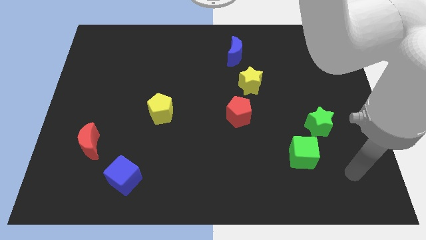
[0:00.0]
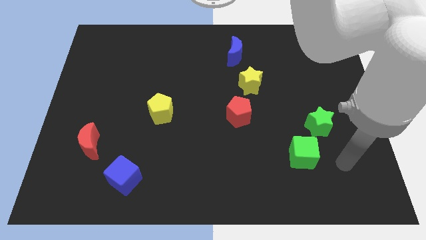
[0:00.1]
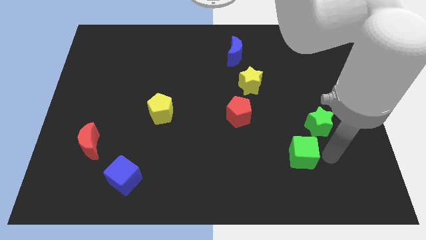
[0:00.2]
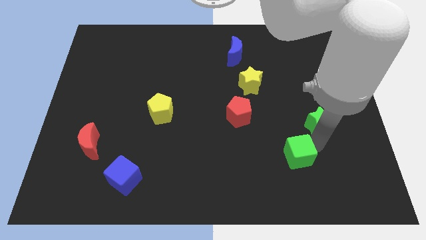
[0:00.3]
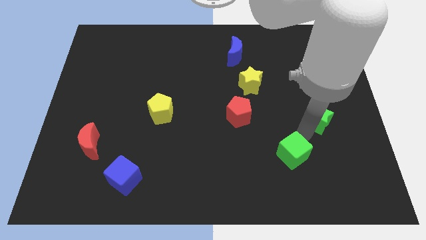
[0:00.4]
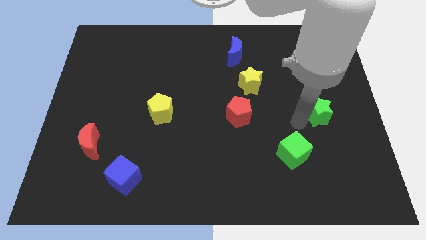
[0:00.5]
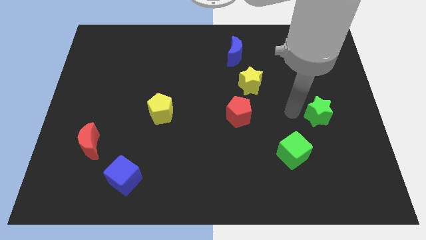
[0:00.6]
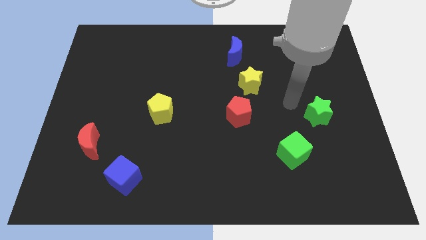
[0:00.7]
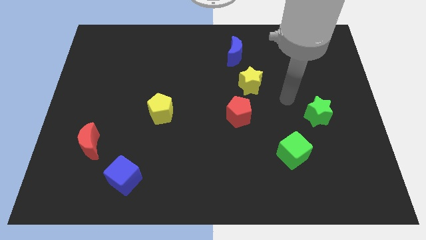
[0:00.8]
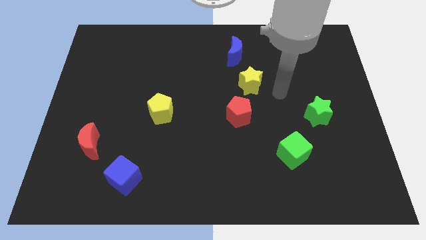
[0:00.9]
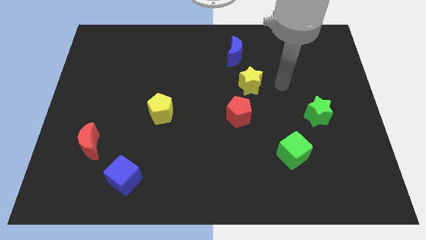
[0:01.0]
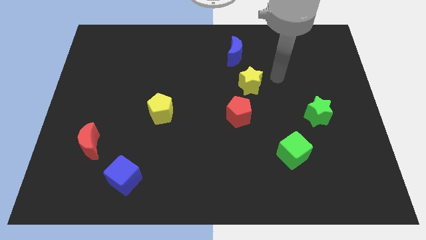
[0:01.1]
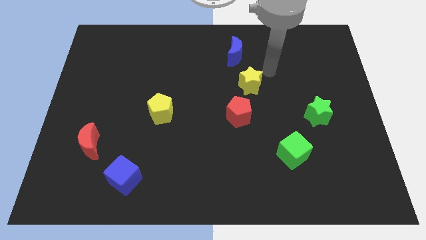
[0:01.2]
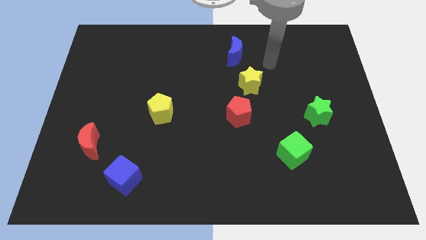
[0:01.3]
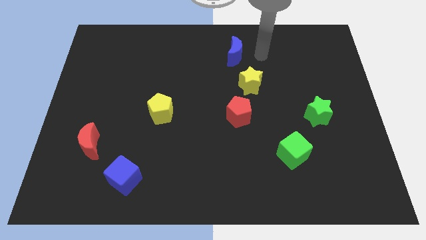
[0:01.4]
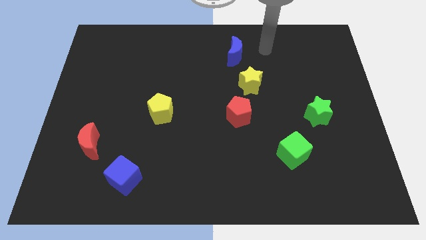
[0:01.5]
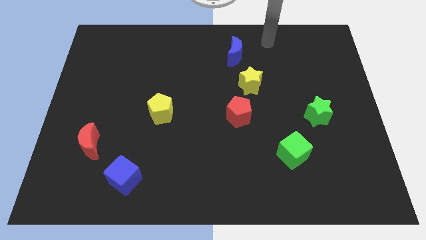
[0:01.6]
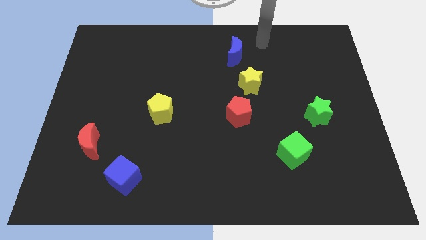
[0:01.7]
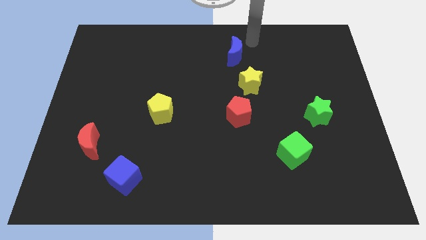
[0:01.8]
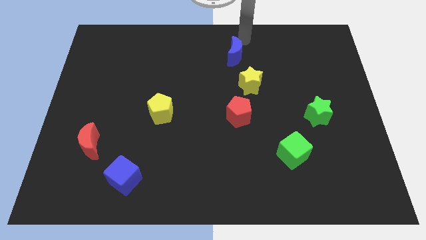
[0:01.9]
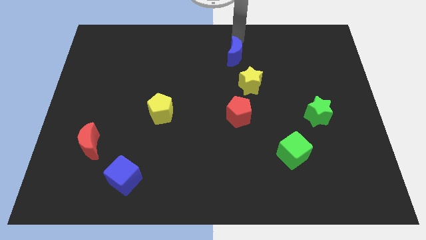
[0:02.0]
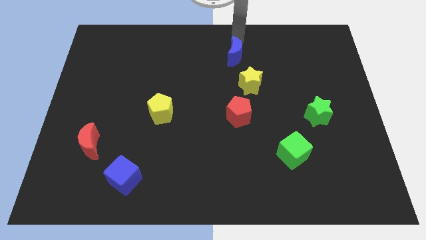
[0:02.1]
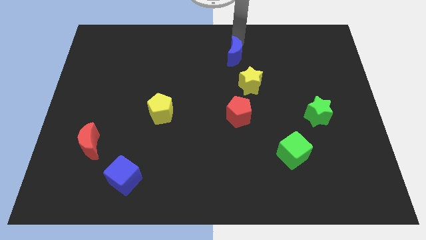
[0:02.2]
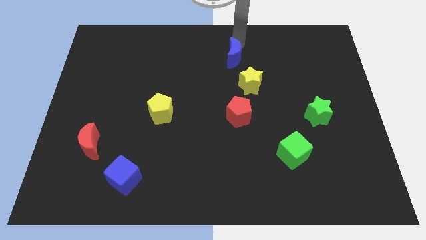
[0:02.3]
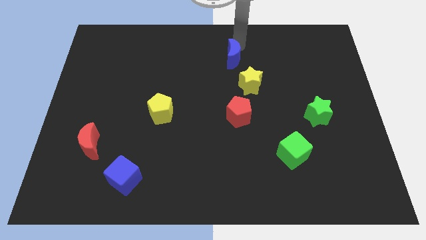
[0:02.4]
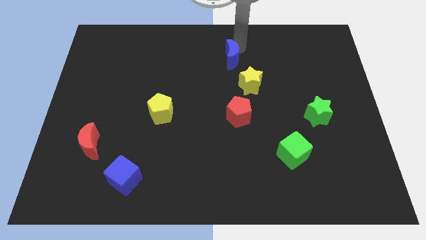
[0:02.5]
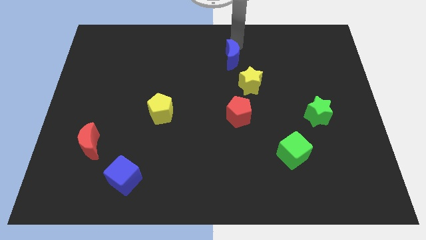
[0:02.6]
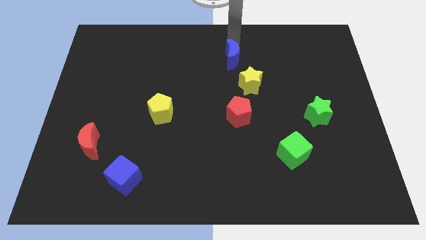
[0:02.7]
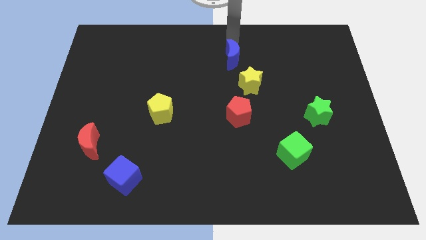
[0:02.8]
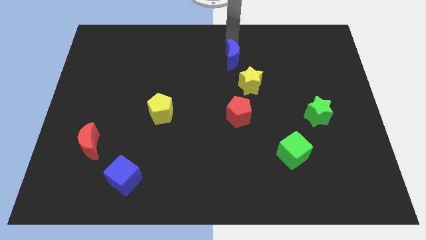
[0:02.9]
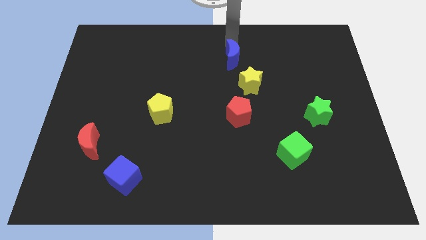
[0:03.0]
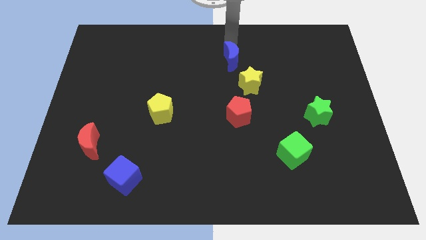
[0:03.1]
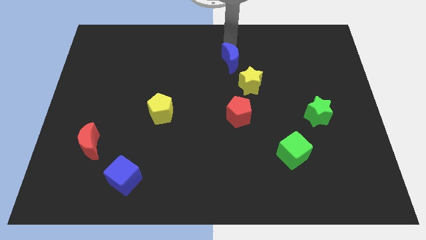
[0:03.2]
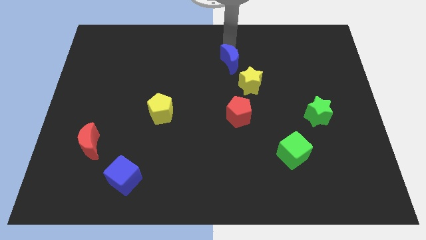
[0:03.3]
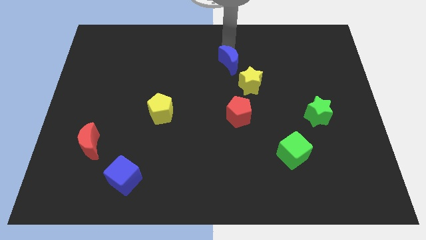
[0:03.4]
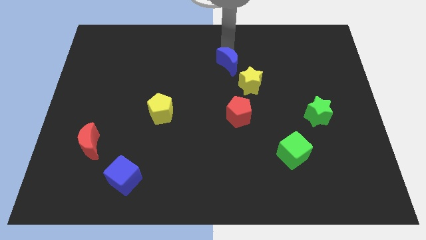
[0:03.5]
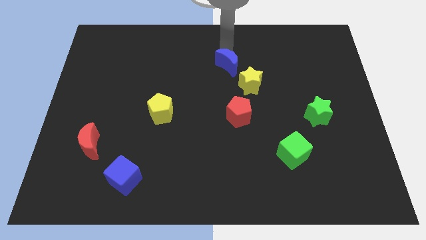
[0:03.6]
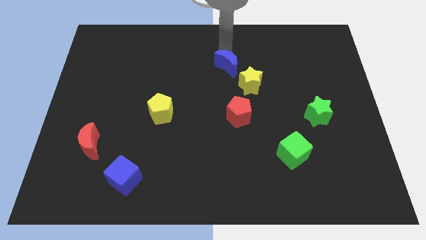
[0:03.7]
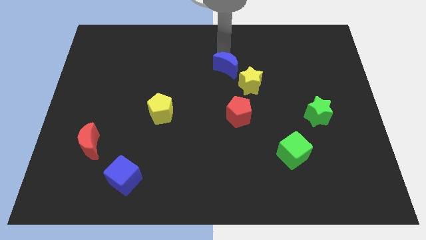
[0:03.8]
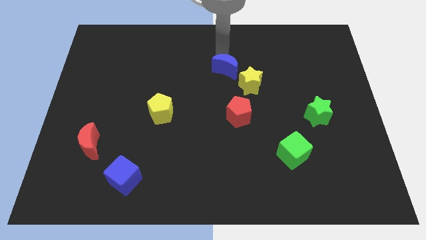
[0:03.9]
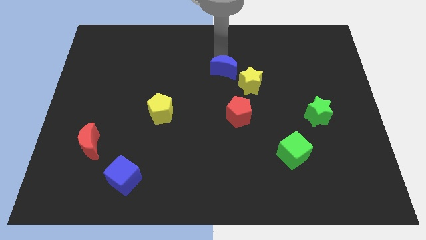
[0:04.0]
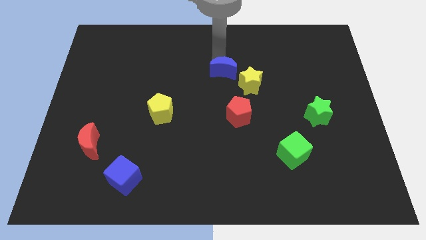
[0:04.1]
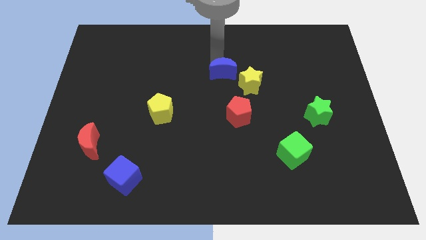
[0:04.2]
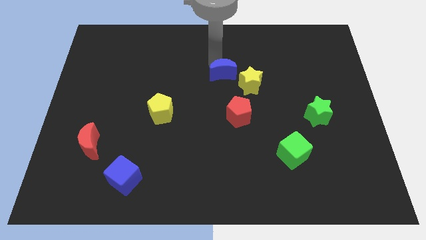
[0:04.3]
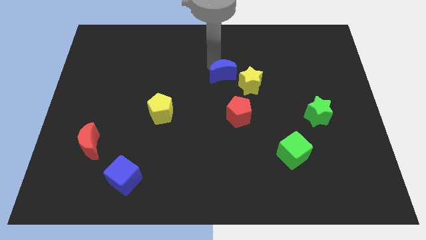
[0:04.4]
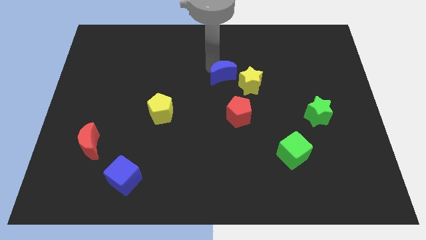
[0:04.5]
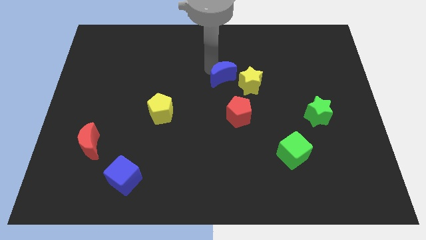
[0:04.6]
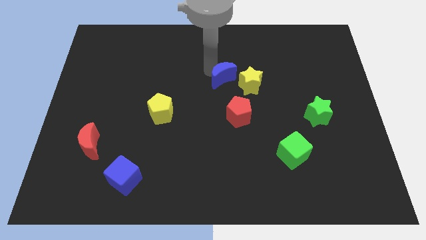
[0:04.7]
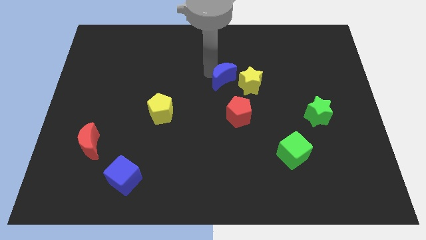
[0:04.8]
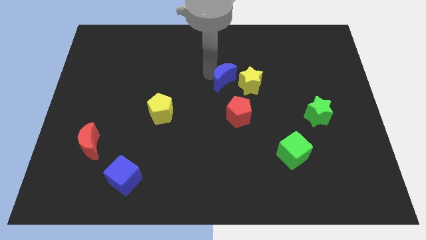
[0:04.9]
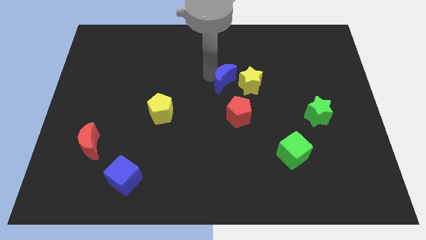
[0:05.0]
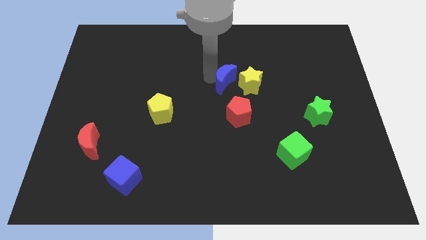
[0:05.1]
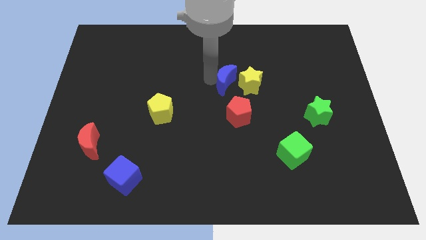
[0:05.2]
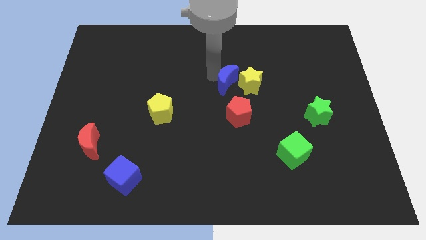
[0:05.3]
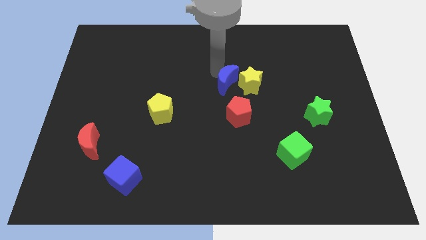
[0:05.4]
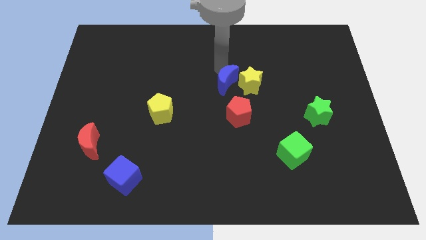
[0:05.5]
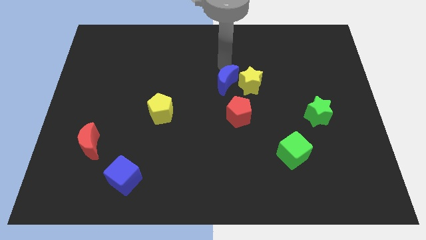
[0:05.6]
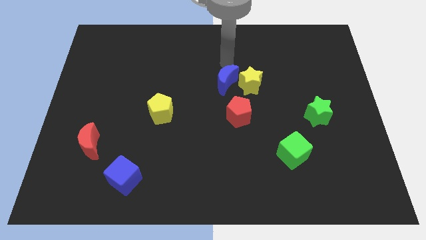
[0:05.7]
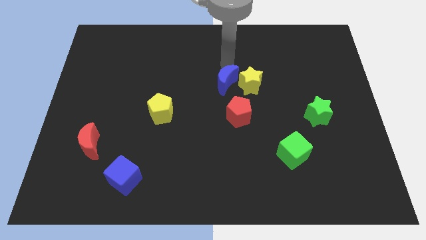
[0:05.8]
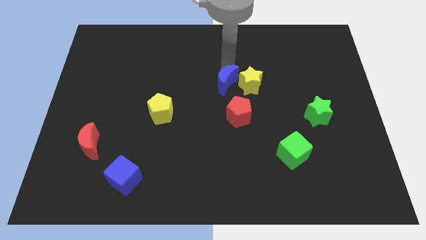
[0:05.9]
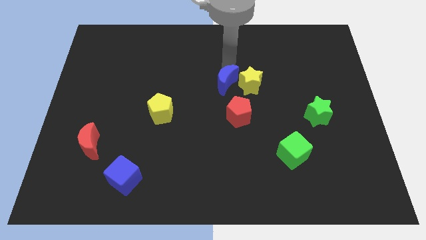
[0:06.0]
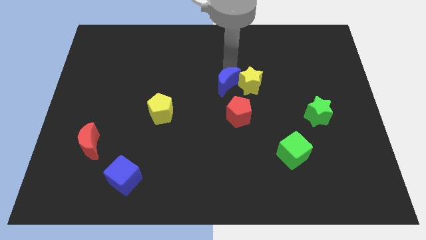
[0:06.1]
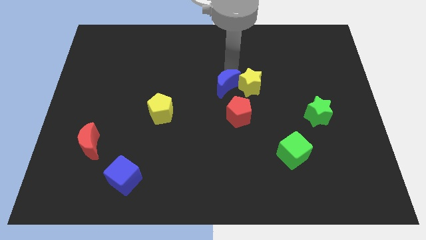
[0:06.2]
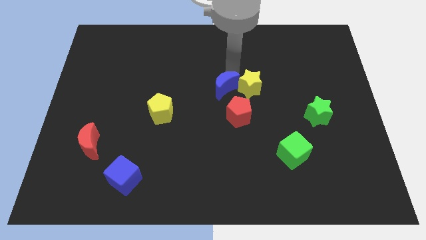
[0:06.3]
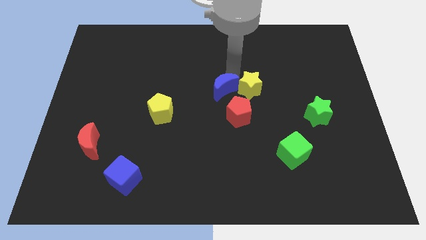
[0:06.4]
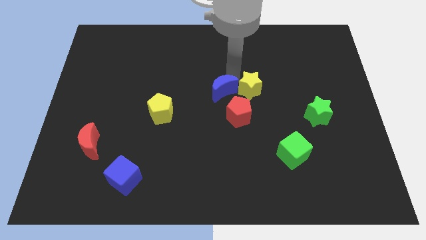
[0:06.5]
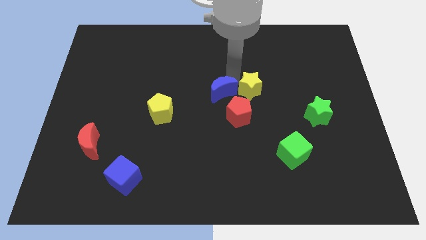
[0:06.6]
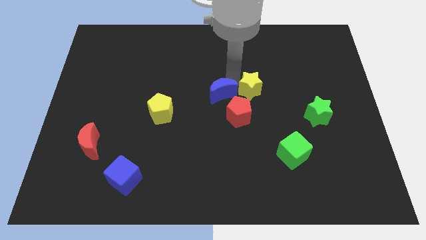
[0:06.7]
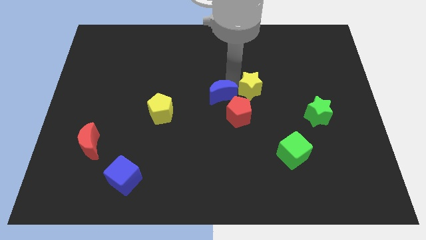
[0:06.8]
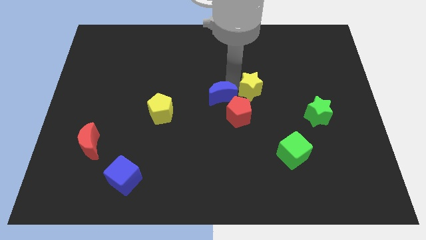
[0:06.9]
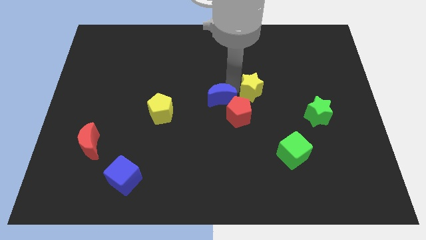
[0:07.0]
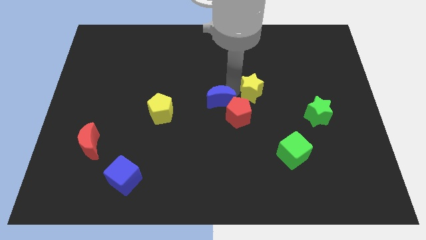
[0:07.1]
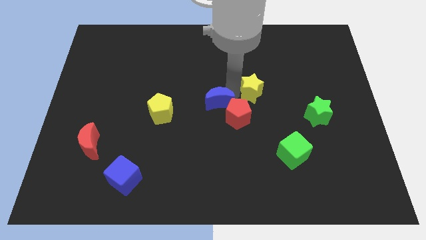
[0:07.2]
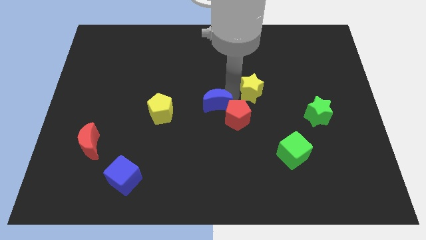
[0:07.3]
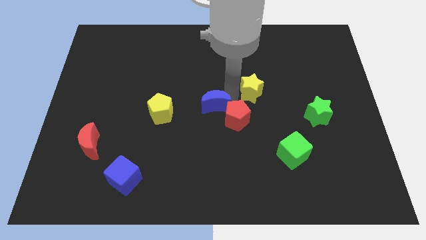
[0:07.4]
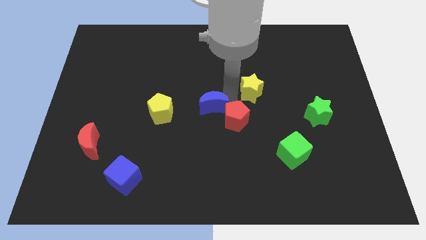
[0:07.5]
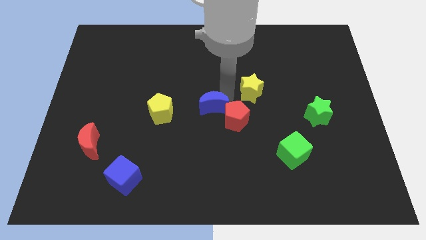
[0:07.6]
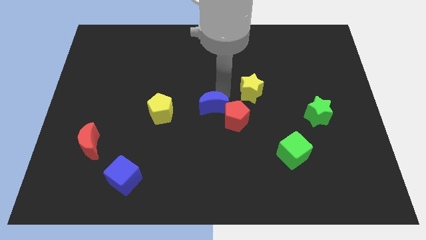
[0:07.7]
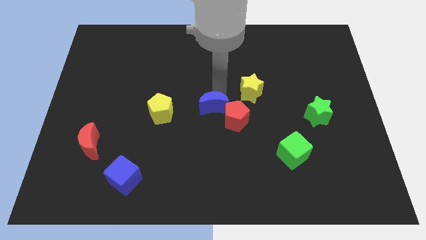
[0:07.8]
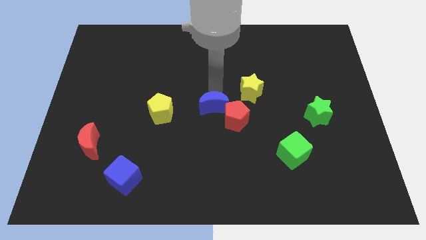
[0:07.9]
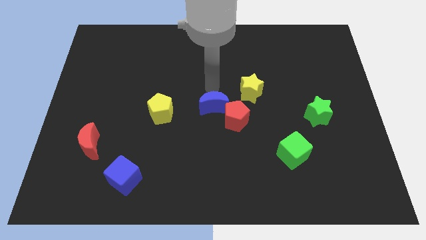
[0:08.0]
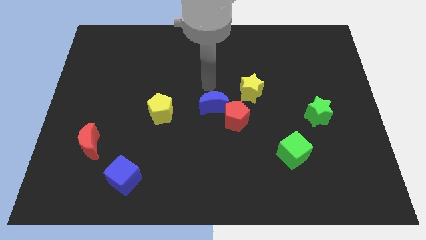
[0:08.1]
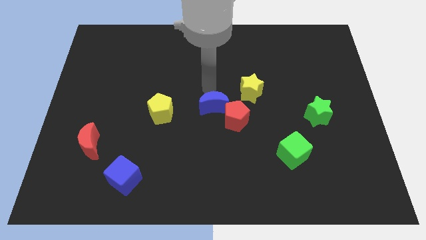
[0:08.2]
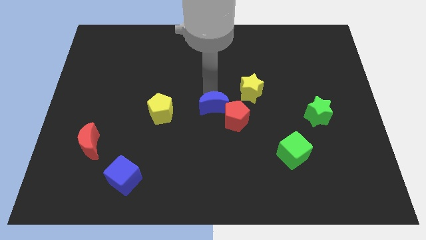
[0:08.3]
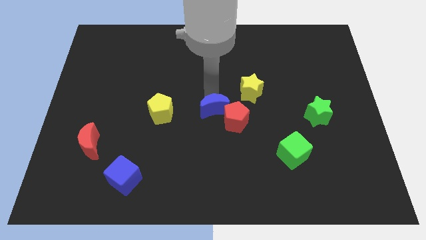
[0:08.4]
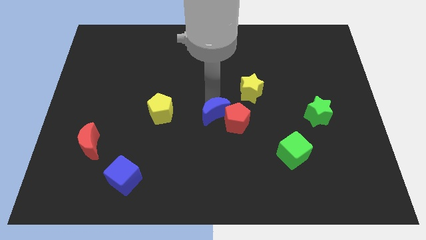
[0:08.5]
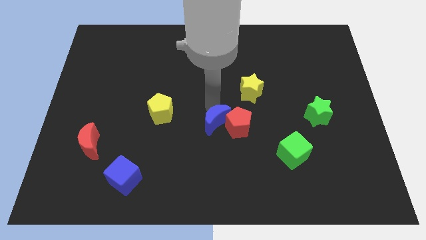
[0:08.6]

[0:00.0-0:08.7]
slide the blue moon downwards
